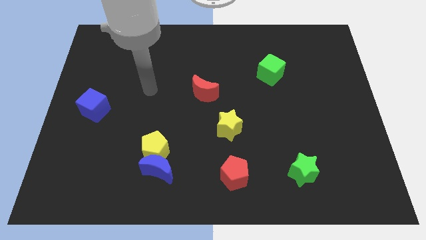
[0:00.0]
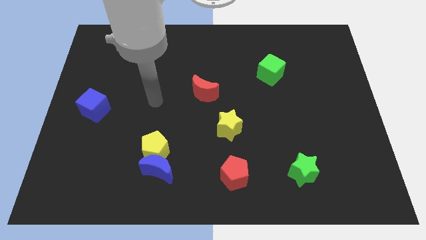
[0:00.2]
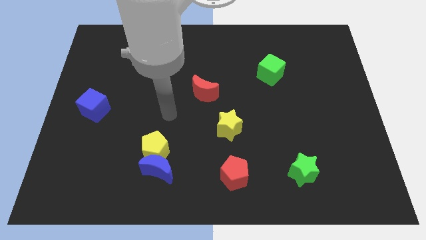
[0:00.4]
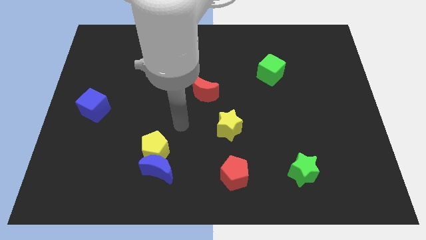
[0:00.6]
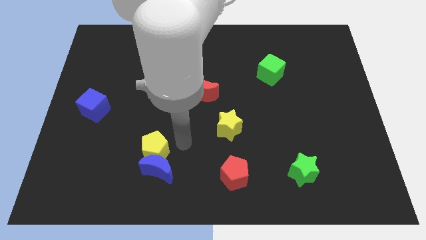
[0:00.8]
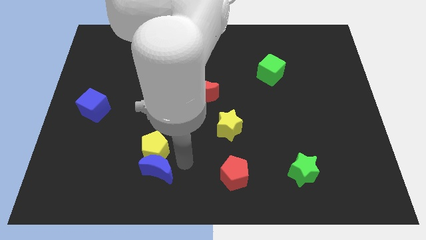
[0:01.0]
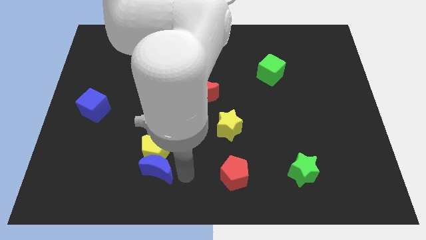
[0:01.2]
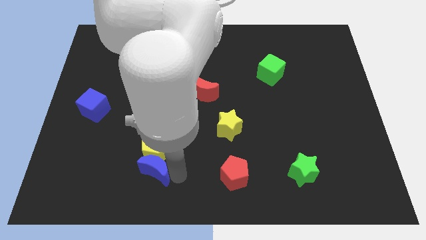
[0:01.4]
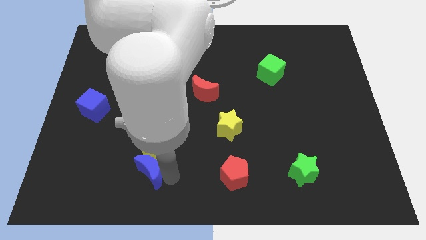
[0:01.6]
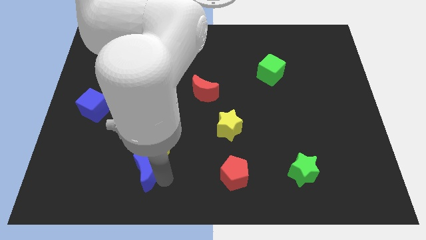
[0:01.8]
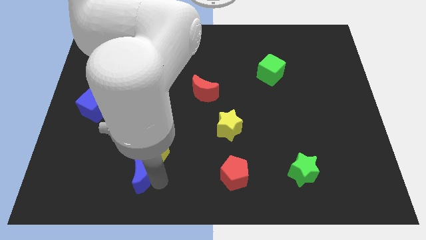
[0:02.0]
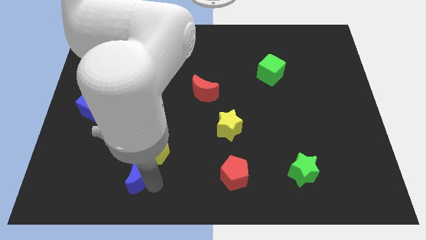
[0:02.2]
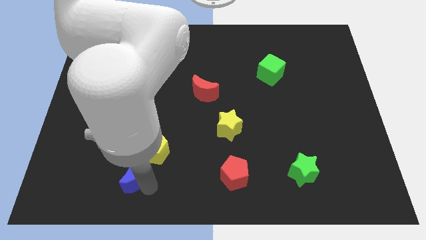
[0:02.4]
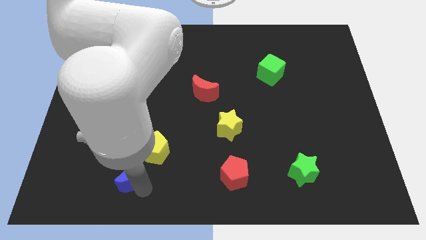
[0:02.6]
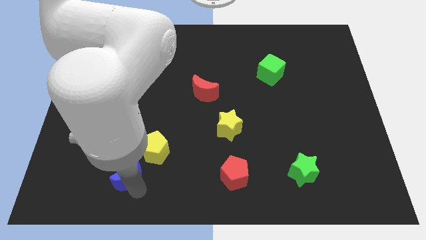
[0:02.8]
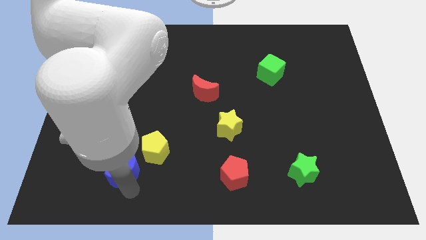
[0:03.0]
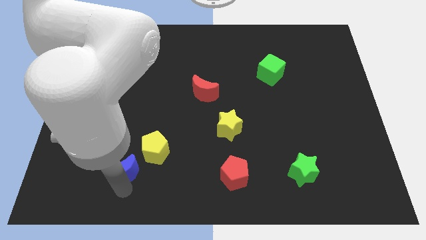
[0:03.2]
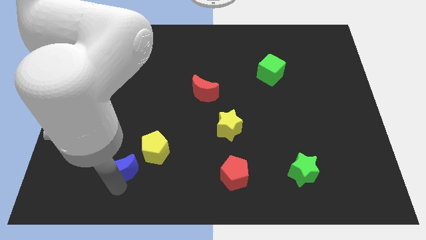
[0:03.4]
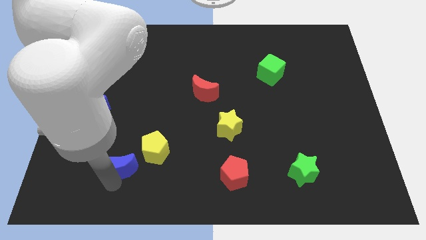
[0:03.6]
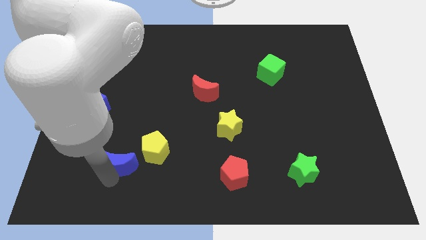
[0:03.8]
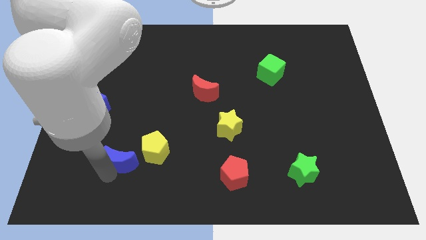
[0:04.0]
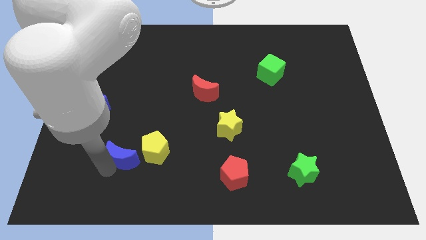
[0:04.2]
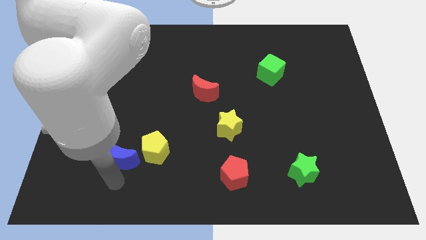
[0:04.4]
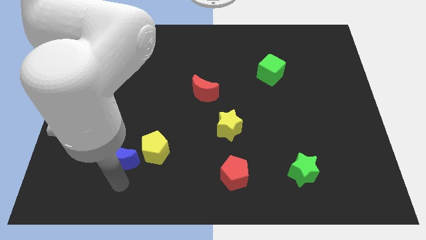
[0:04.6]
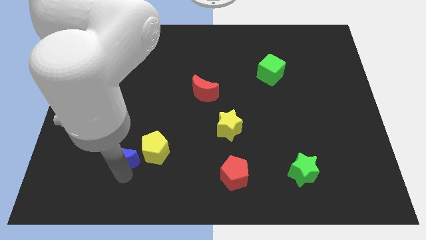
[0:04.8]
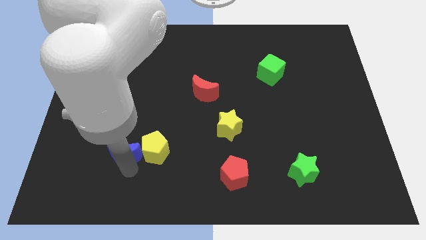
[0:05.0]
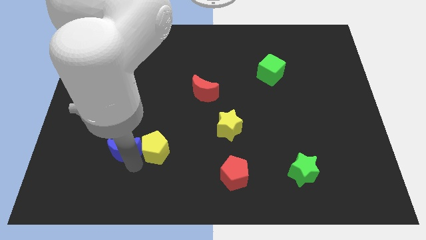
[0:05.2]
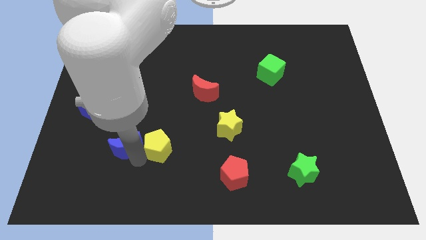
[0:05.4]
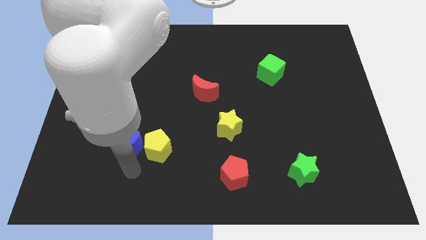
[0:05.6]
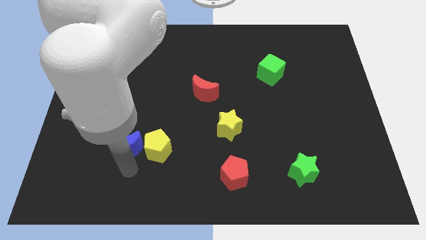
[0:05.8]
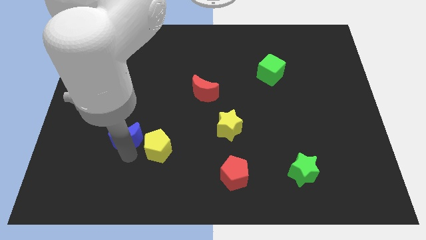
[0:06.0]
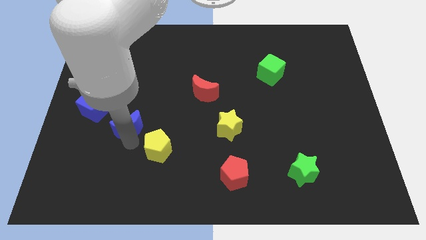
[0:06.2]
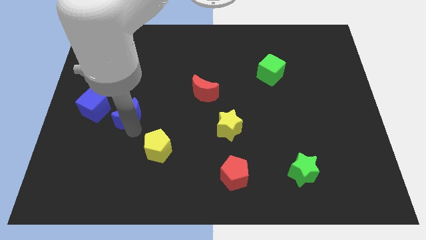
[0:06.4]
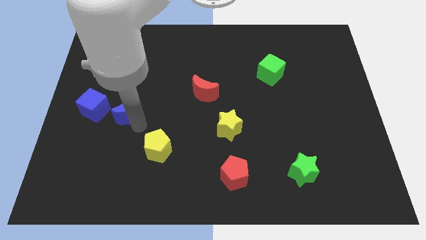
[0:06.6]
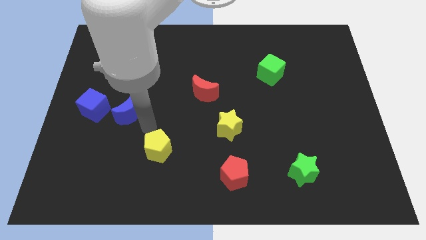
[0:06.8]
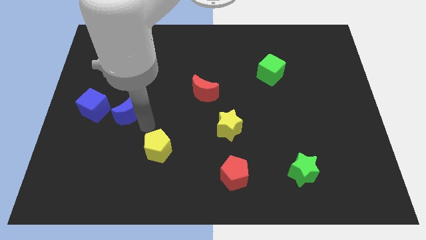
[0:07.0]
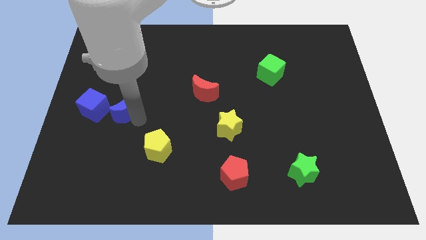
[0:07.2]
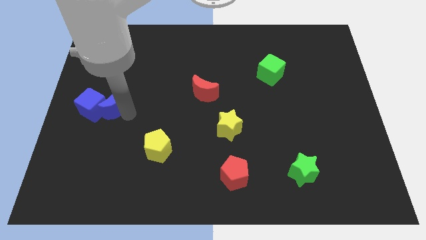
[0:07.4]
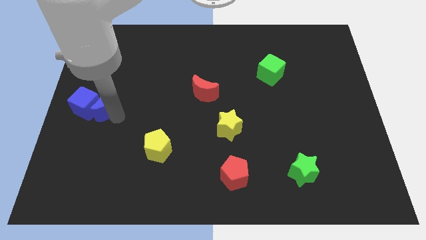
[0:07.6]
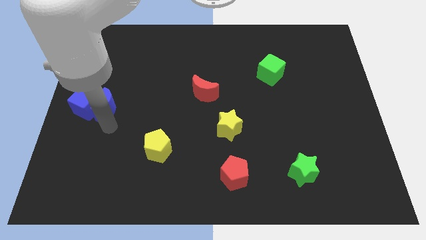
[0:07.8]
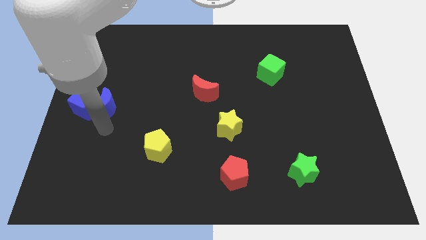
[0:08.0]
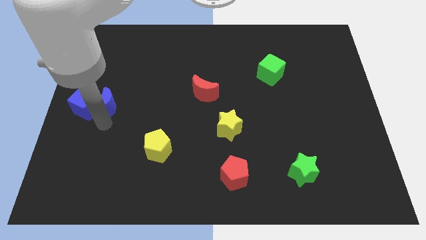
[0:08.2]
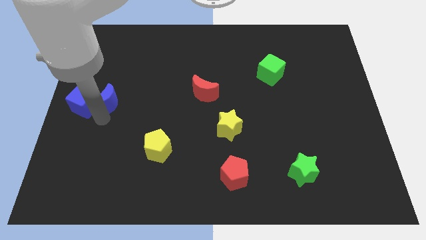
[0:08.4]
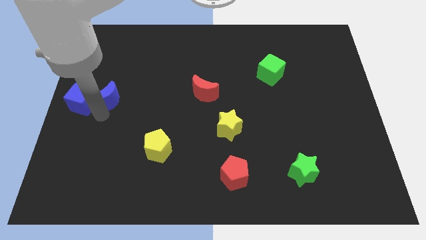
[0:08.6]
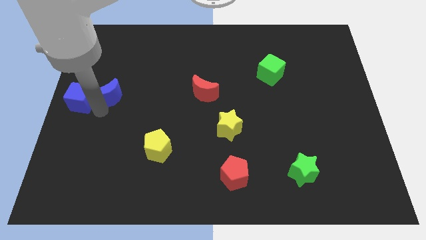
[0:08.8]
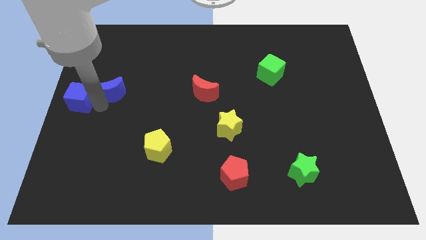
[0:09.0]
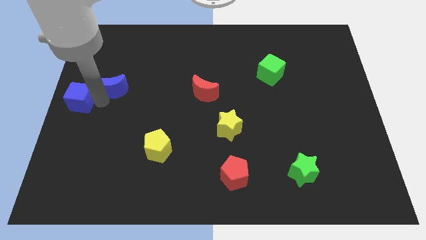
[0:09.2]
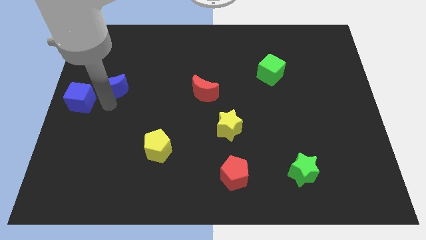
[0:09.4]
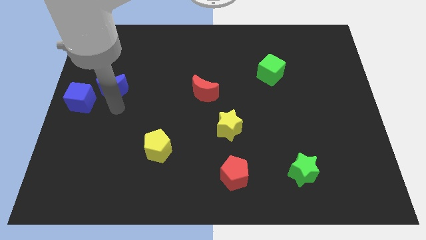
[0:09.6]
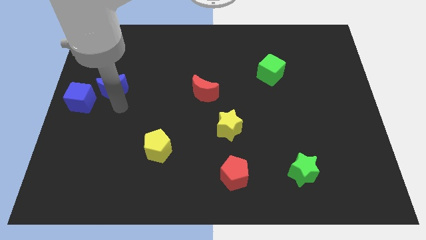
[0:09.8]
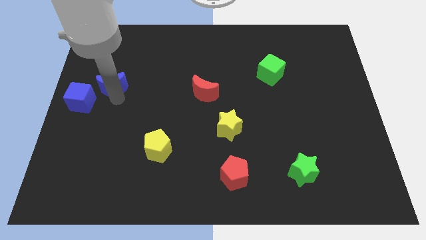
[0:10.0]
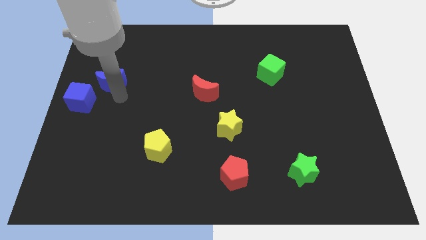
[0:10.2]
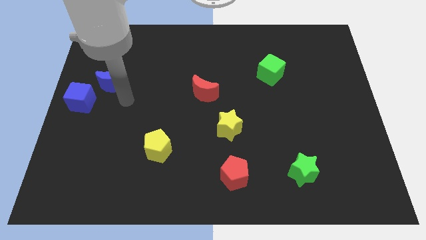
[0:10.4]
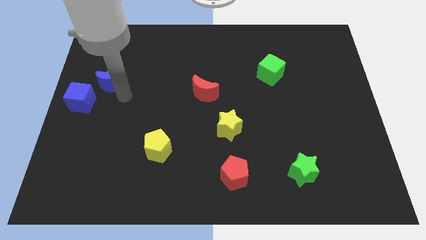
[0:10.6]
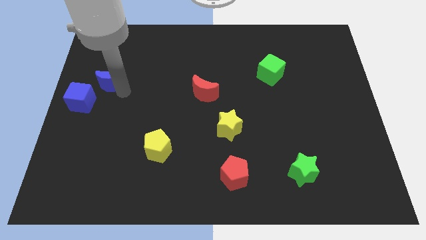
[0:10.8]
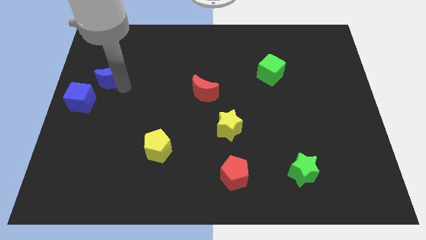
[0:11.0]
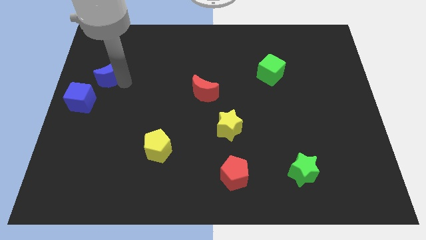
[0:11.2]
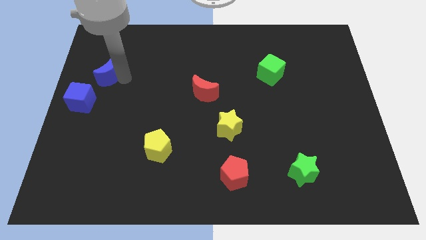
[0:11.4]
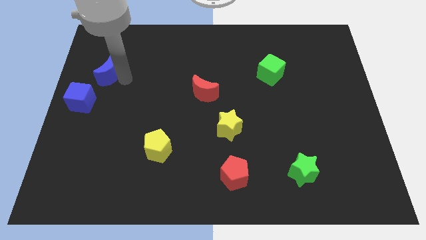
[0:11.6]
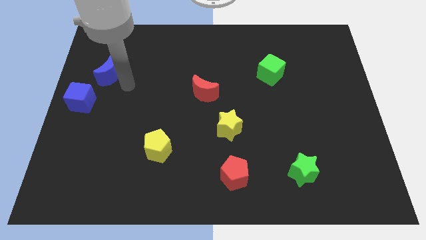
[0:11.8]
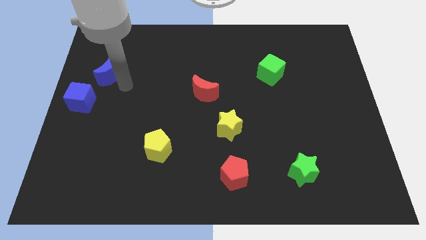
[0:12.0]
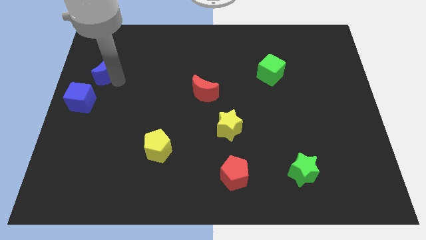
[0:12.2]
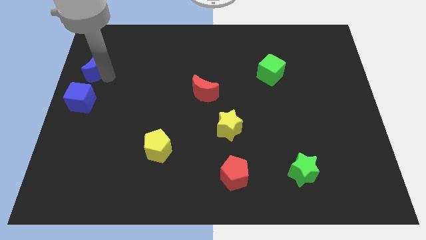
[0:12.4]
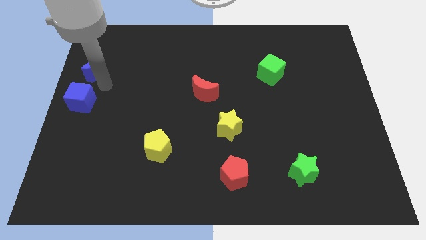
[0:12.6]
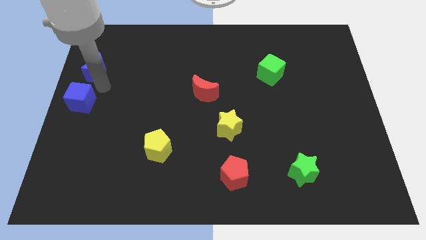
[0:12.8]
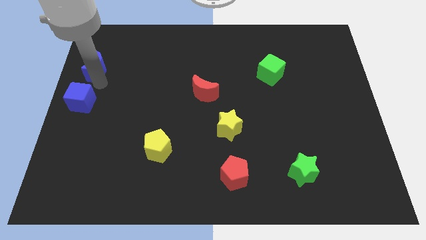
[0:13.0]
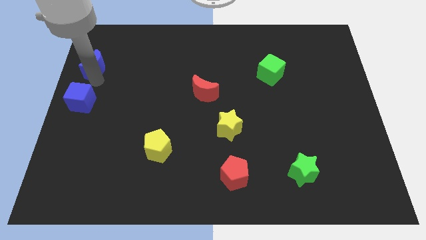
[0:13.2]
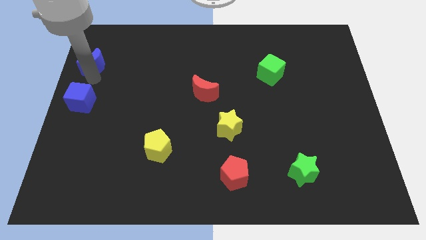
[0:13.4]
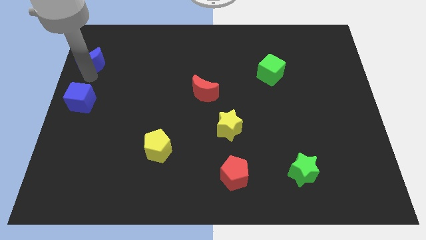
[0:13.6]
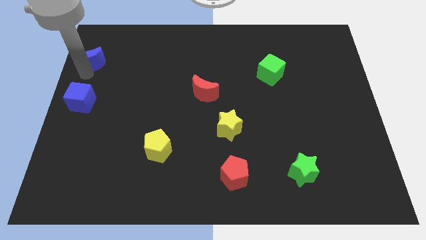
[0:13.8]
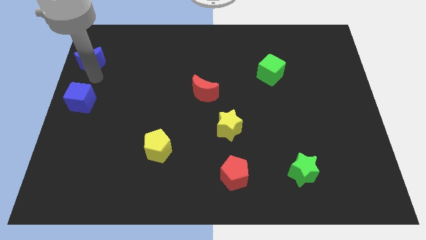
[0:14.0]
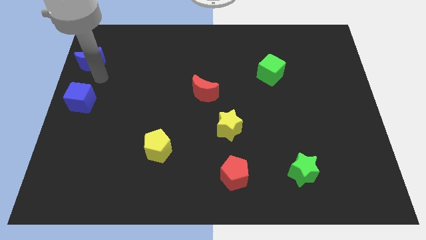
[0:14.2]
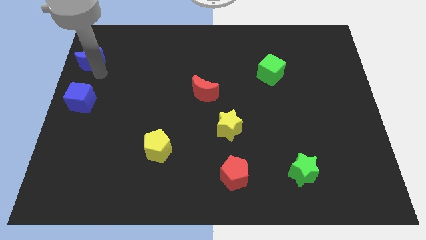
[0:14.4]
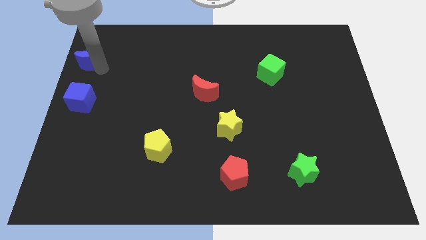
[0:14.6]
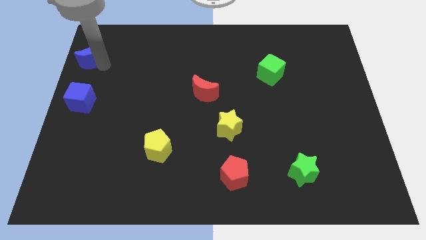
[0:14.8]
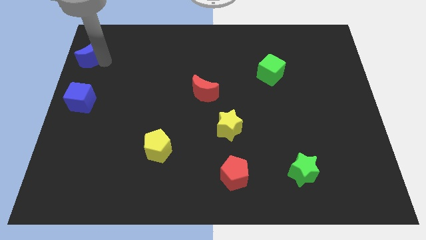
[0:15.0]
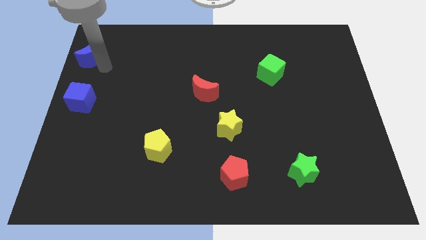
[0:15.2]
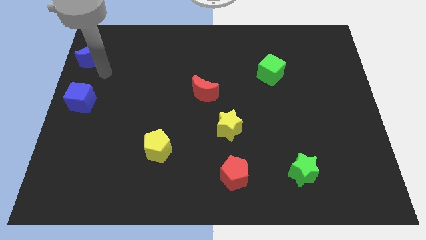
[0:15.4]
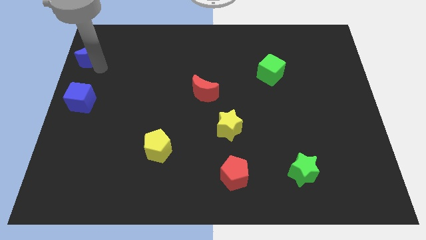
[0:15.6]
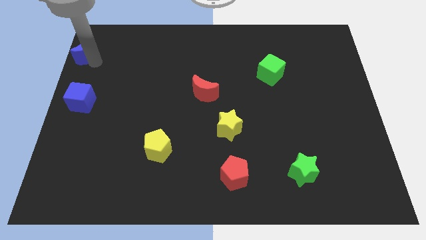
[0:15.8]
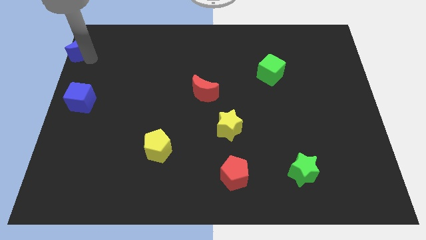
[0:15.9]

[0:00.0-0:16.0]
move the blue moon to the top left
